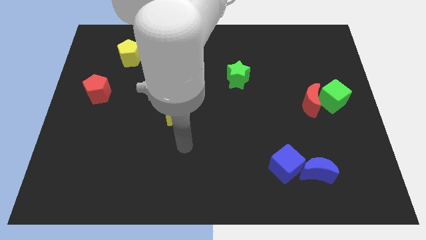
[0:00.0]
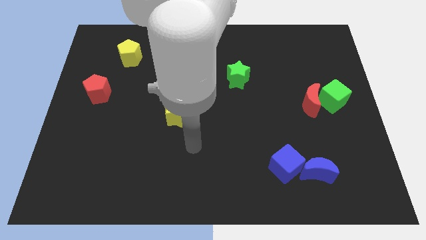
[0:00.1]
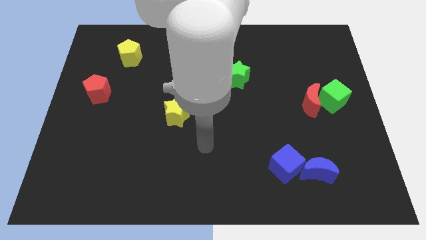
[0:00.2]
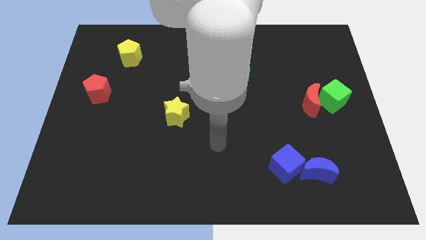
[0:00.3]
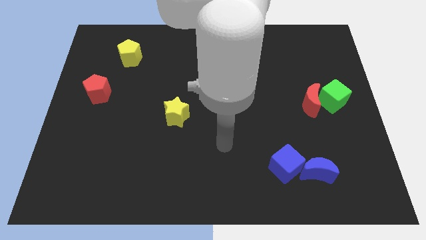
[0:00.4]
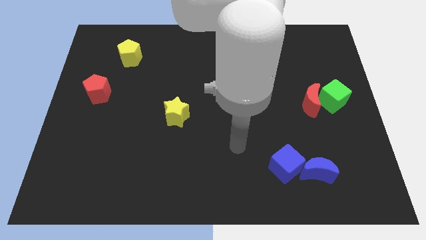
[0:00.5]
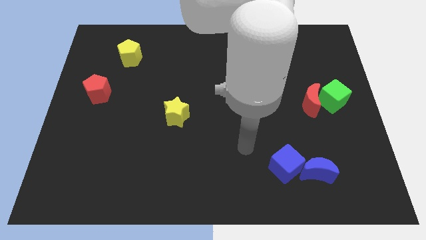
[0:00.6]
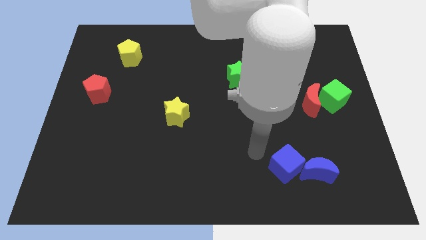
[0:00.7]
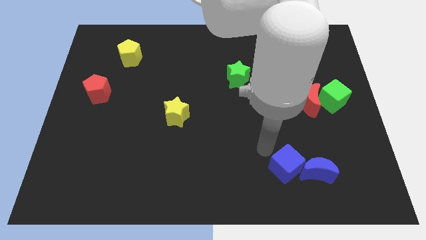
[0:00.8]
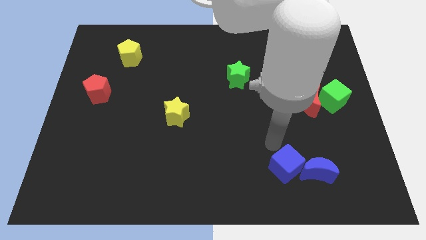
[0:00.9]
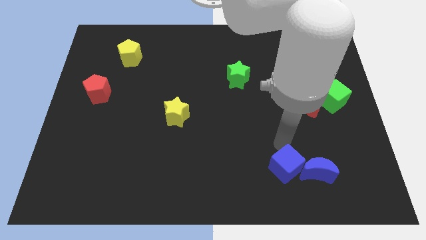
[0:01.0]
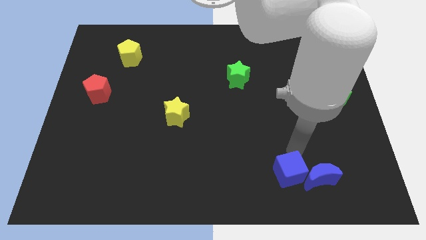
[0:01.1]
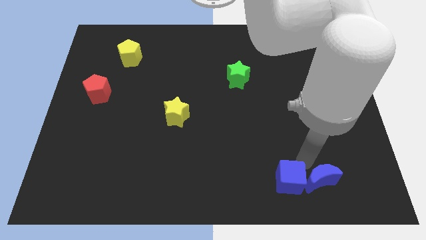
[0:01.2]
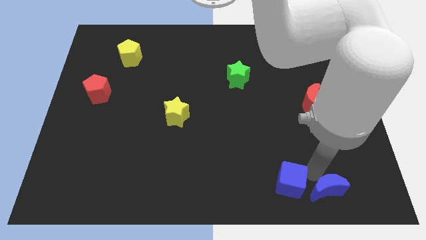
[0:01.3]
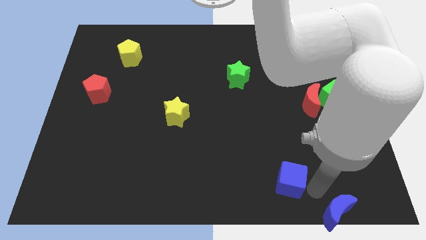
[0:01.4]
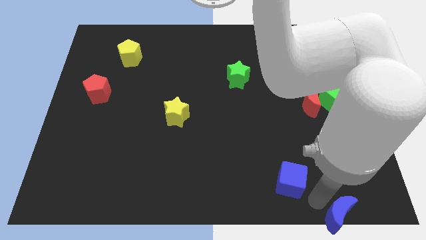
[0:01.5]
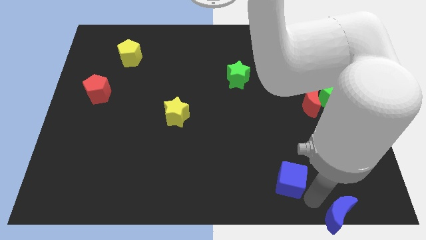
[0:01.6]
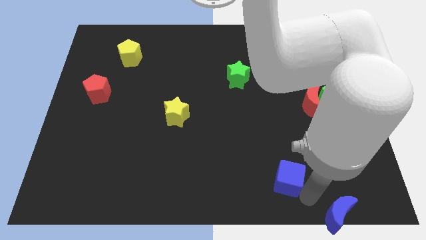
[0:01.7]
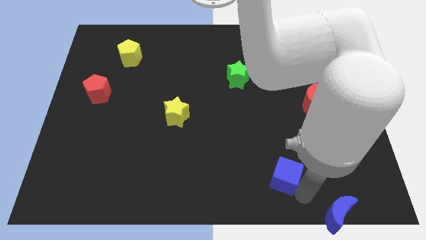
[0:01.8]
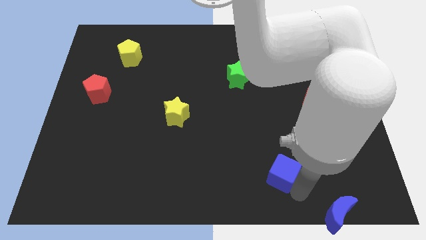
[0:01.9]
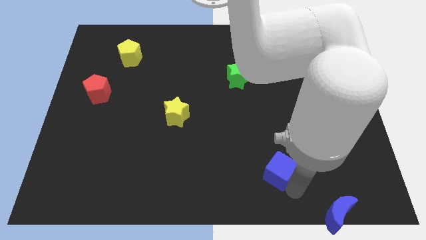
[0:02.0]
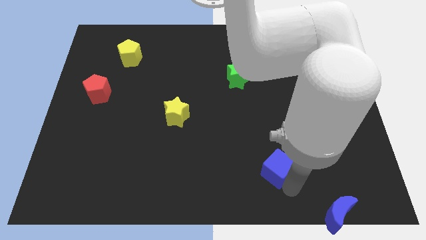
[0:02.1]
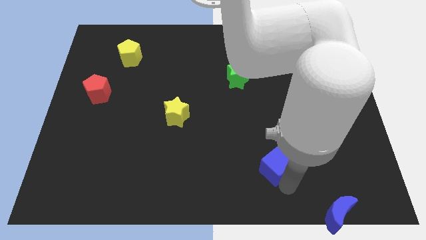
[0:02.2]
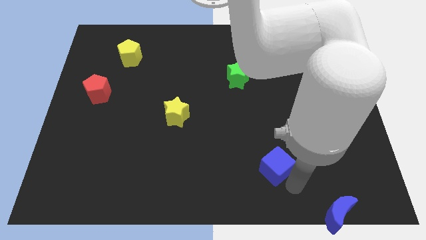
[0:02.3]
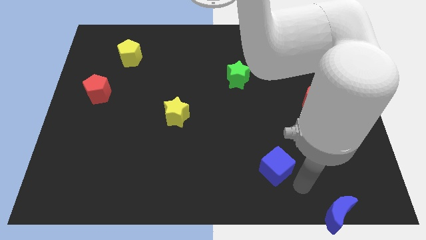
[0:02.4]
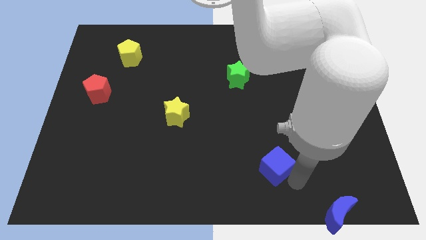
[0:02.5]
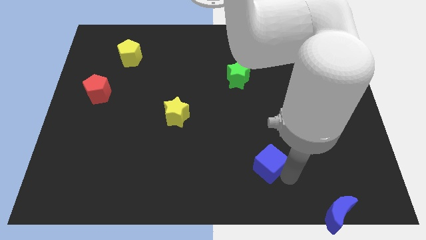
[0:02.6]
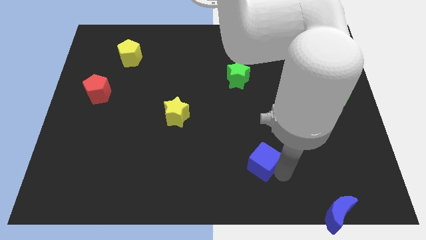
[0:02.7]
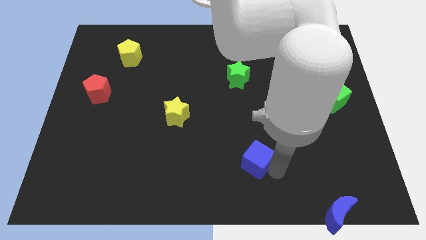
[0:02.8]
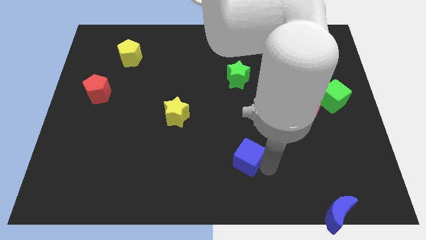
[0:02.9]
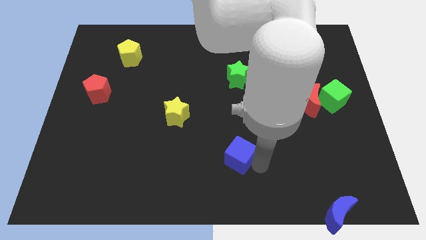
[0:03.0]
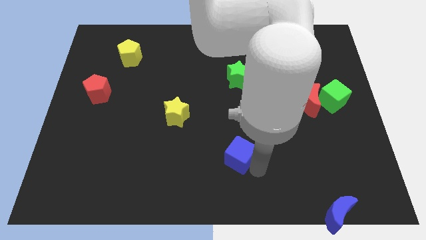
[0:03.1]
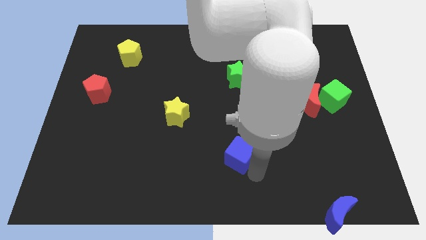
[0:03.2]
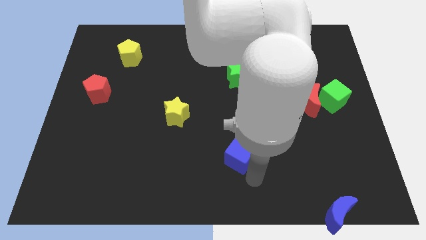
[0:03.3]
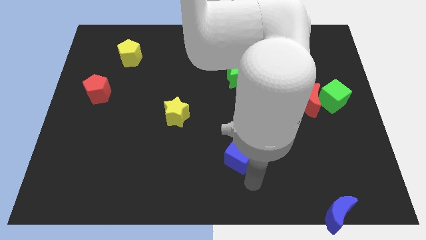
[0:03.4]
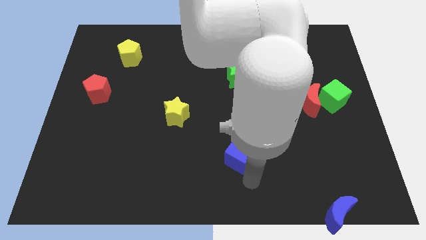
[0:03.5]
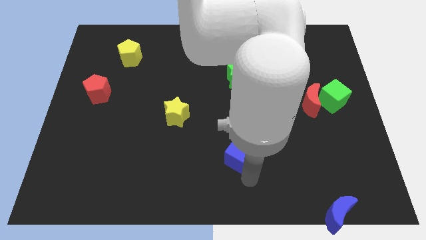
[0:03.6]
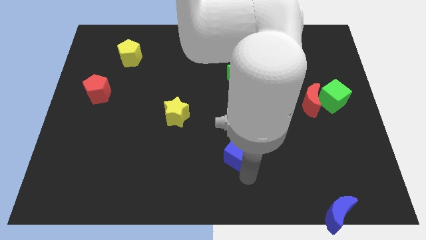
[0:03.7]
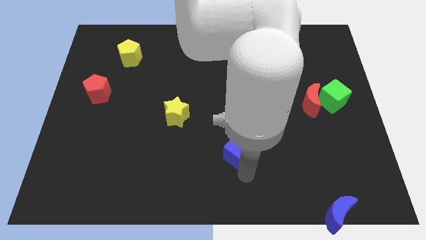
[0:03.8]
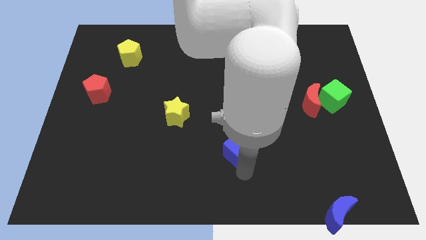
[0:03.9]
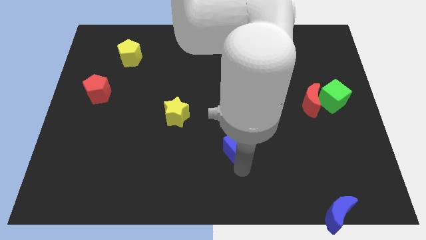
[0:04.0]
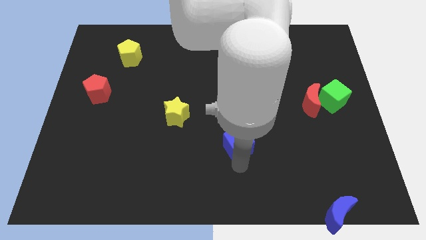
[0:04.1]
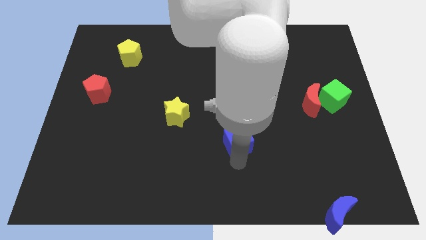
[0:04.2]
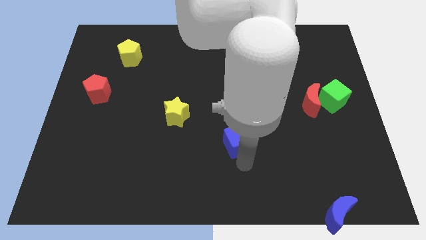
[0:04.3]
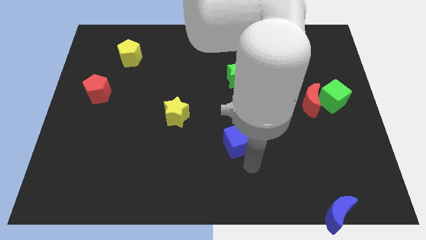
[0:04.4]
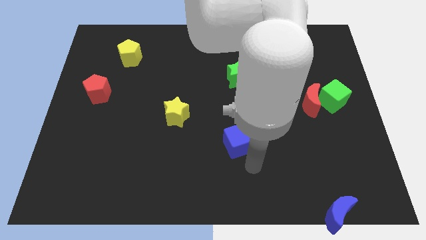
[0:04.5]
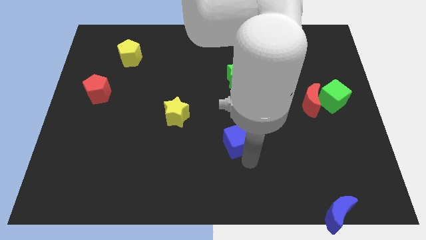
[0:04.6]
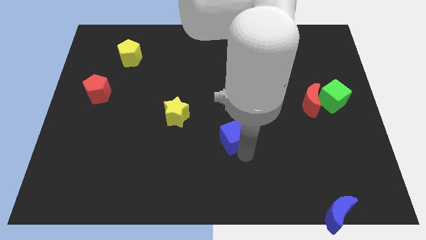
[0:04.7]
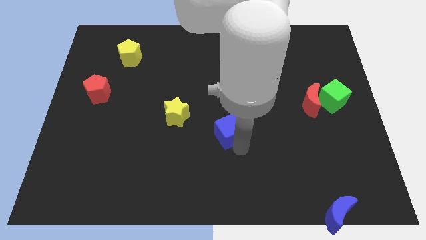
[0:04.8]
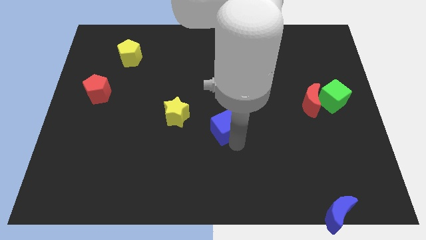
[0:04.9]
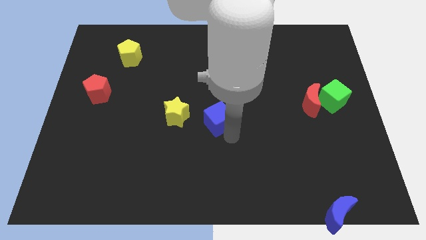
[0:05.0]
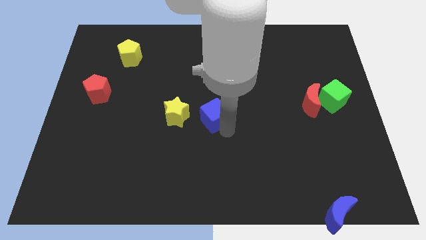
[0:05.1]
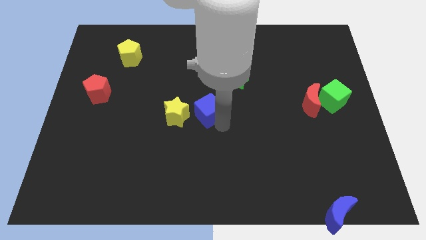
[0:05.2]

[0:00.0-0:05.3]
slide the blue cube up and to the left diagonally

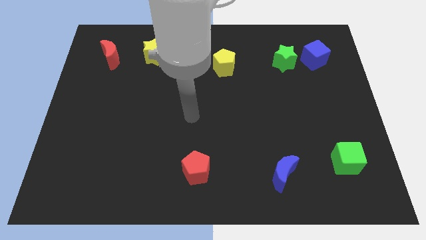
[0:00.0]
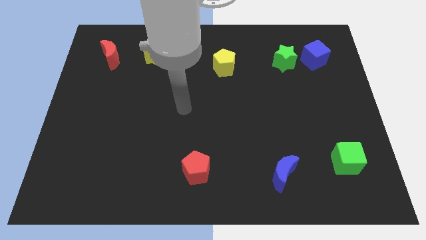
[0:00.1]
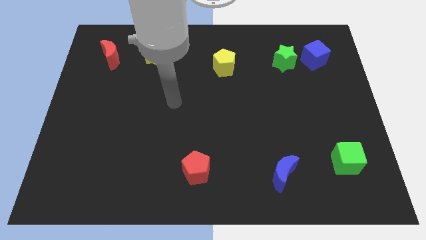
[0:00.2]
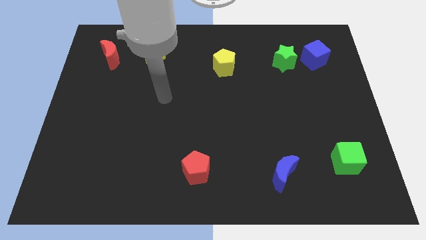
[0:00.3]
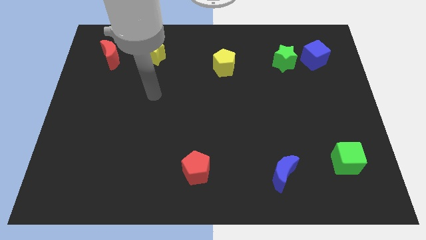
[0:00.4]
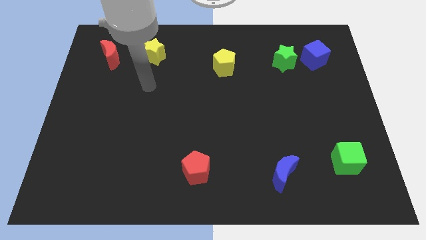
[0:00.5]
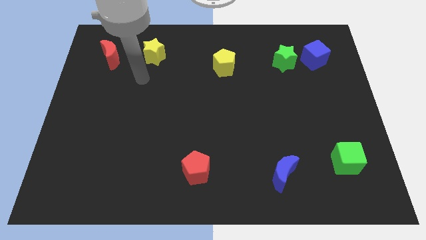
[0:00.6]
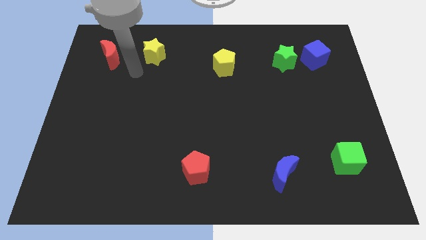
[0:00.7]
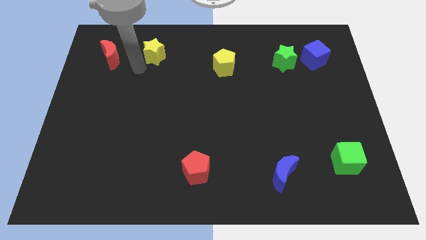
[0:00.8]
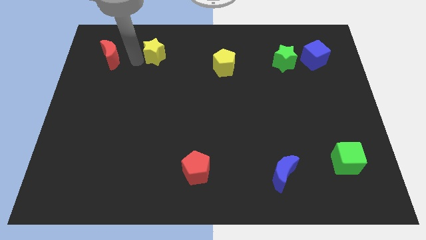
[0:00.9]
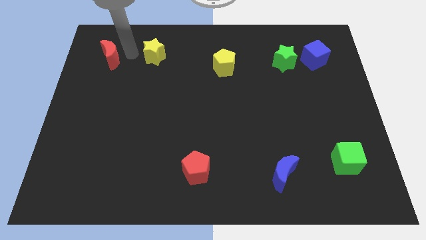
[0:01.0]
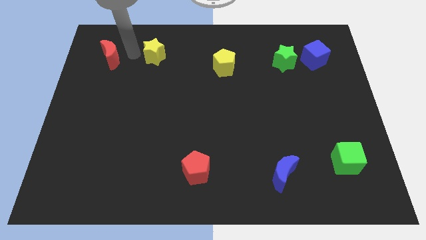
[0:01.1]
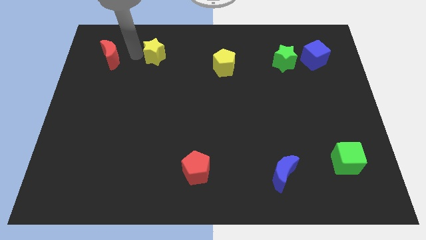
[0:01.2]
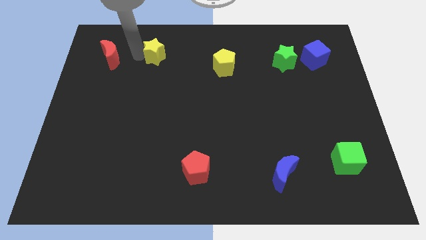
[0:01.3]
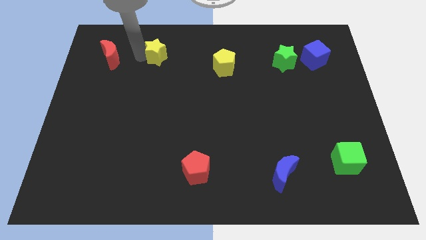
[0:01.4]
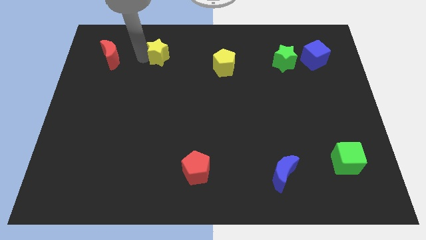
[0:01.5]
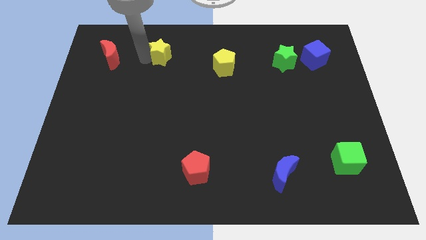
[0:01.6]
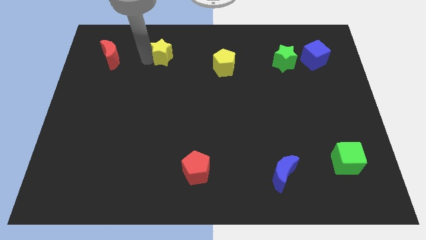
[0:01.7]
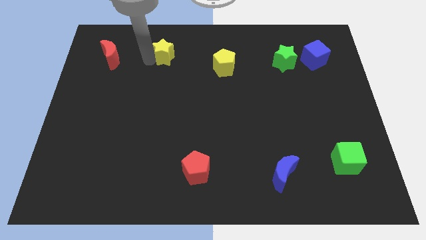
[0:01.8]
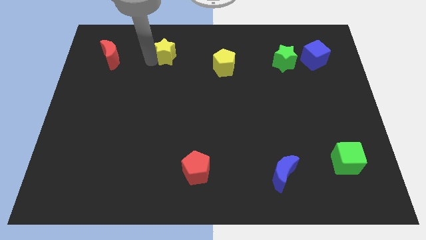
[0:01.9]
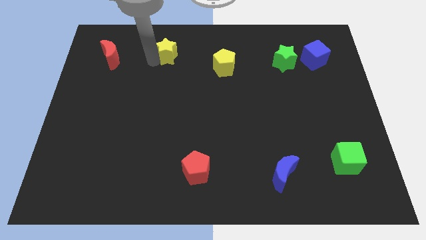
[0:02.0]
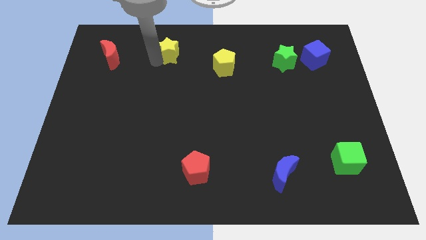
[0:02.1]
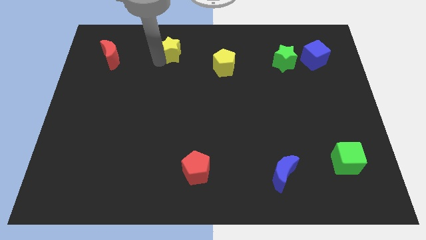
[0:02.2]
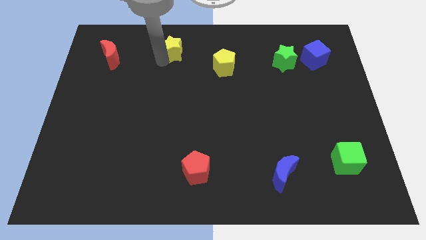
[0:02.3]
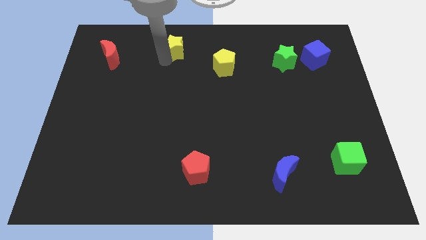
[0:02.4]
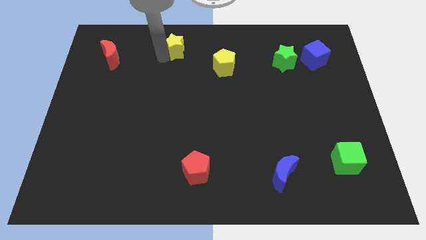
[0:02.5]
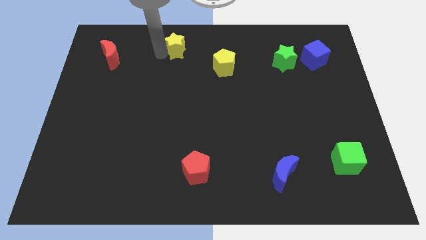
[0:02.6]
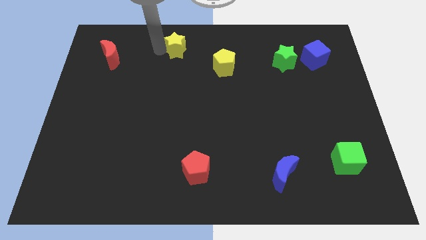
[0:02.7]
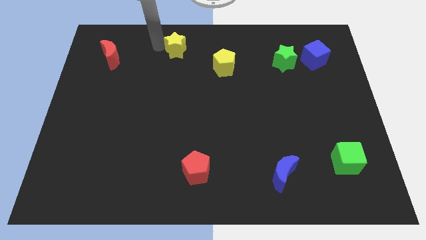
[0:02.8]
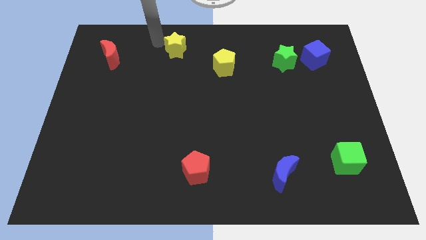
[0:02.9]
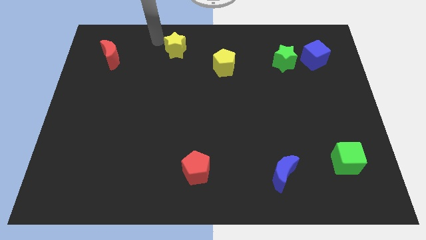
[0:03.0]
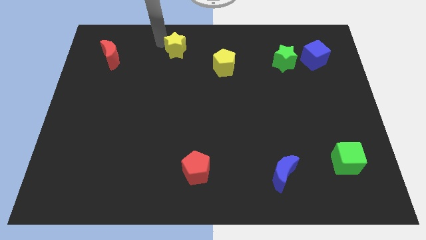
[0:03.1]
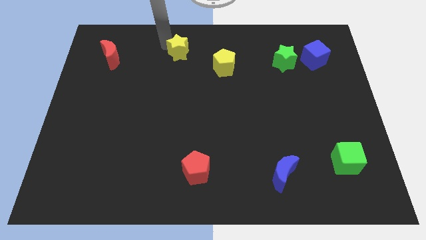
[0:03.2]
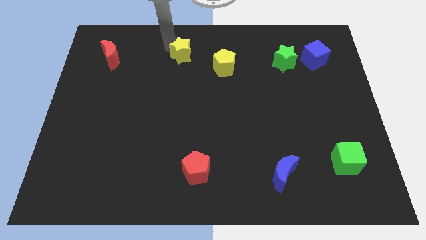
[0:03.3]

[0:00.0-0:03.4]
push the yellow star right a bit
